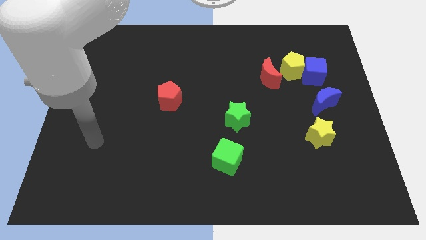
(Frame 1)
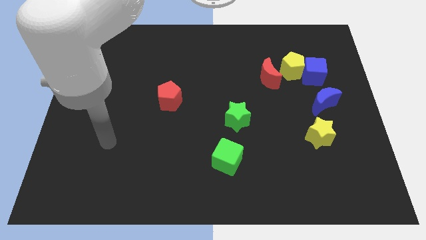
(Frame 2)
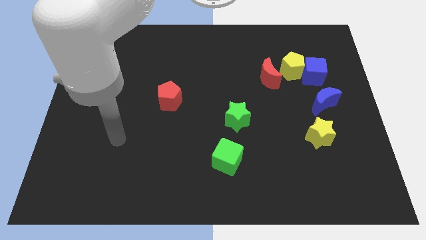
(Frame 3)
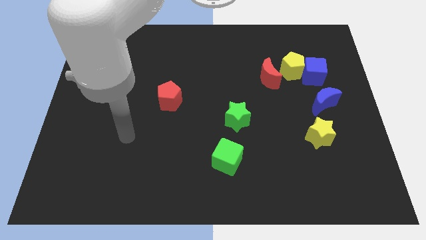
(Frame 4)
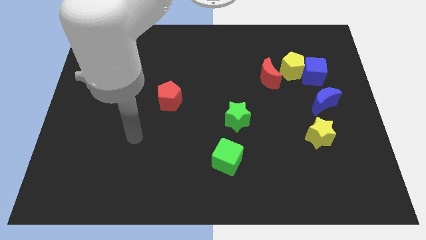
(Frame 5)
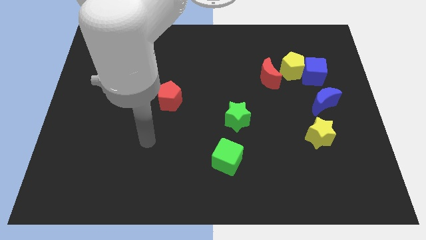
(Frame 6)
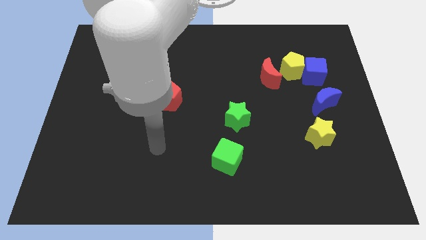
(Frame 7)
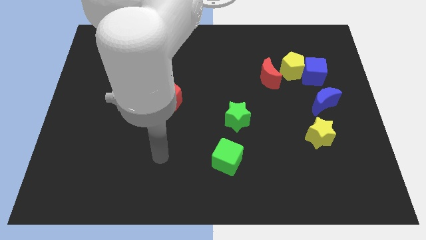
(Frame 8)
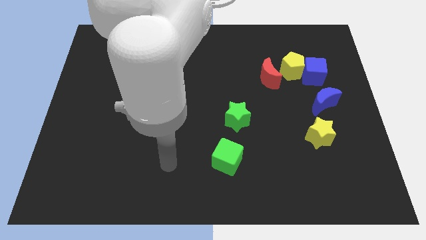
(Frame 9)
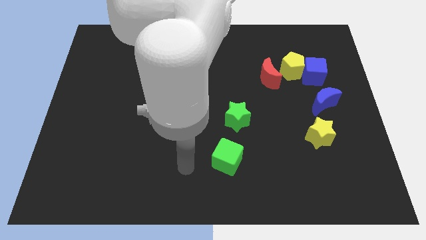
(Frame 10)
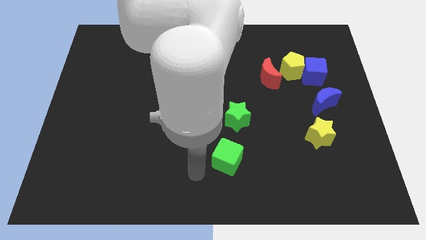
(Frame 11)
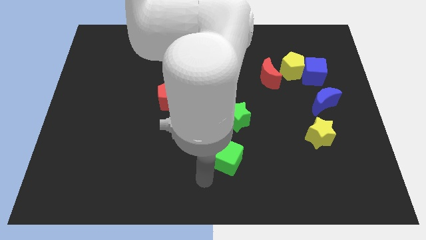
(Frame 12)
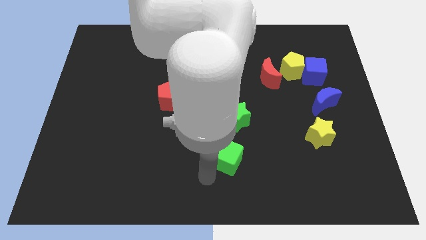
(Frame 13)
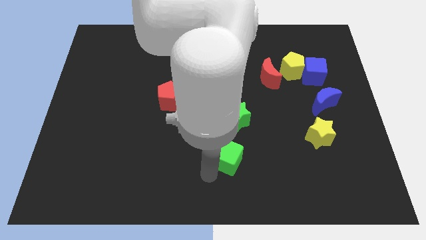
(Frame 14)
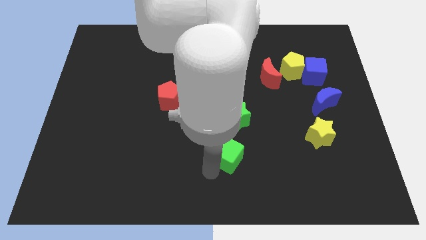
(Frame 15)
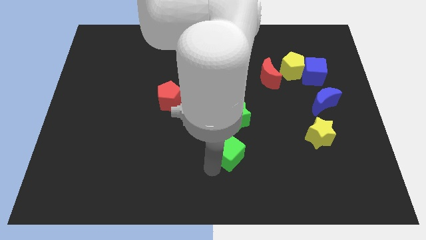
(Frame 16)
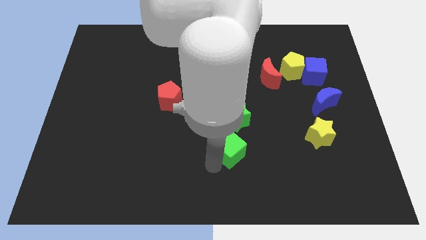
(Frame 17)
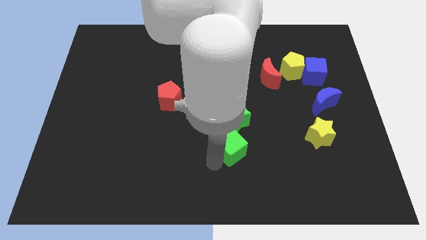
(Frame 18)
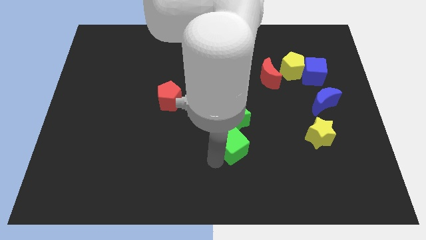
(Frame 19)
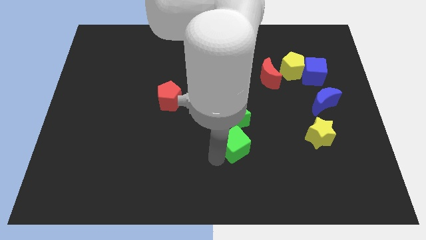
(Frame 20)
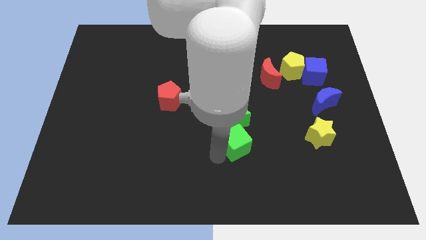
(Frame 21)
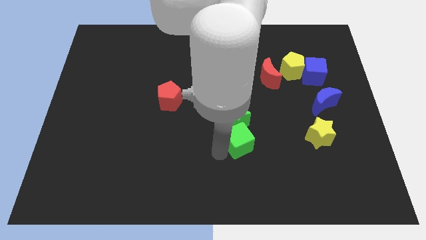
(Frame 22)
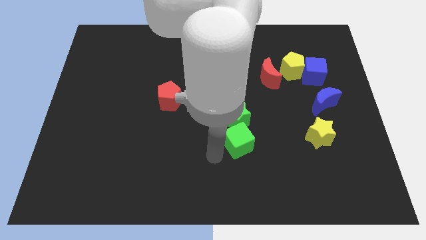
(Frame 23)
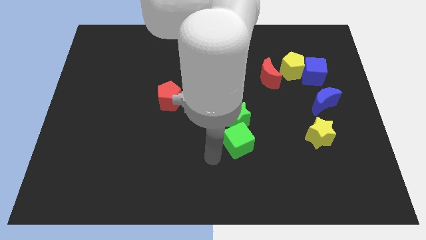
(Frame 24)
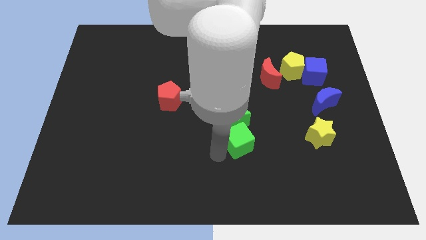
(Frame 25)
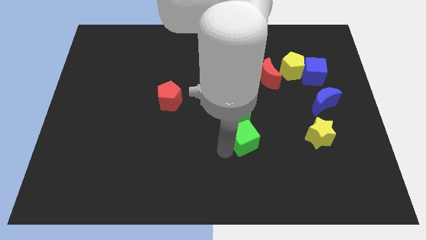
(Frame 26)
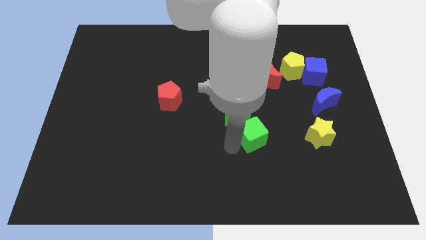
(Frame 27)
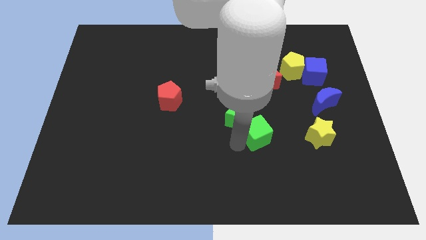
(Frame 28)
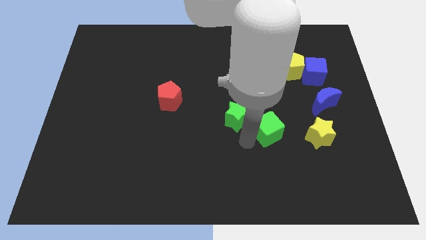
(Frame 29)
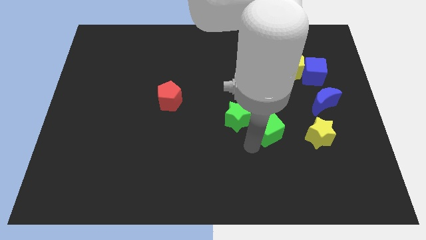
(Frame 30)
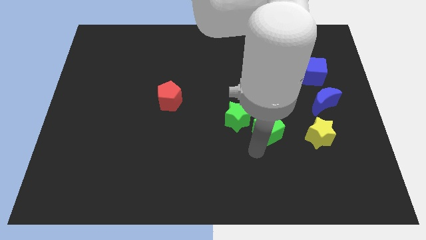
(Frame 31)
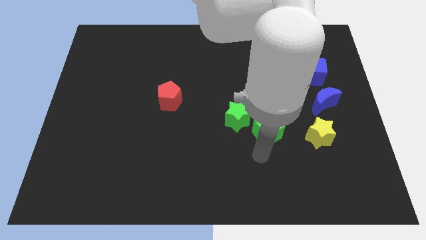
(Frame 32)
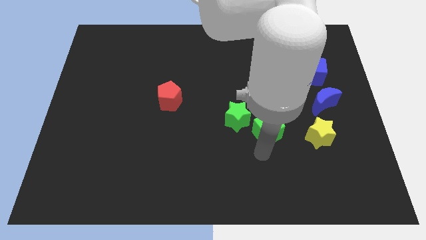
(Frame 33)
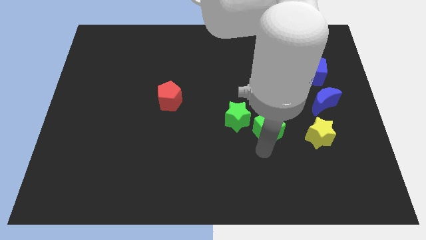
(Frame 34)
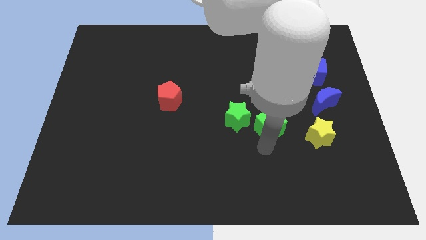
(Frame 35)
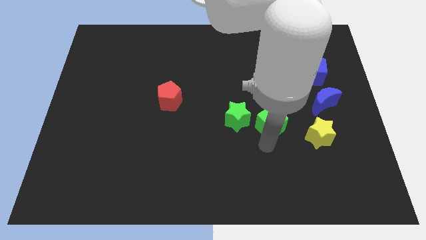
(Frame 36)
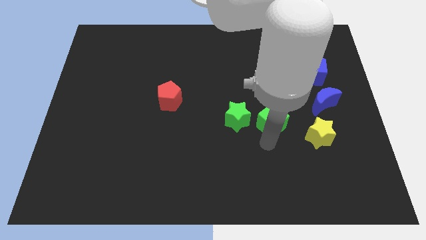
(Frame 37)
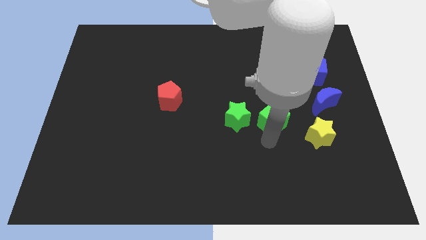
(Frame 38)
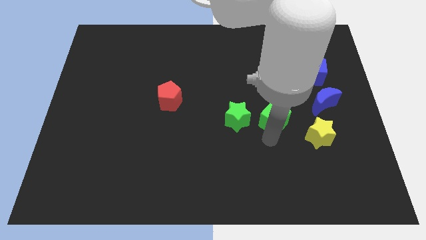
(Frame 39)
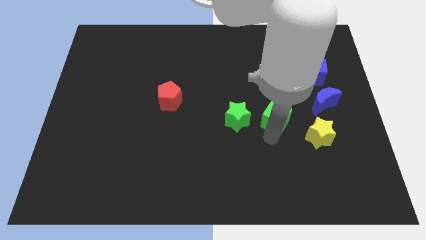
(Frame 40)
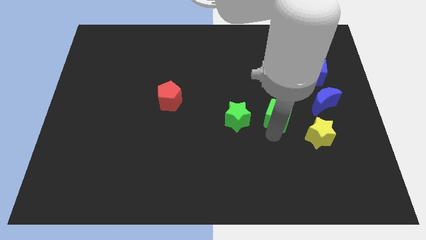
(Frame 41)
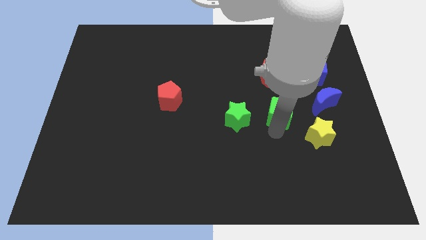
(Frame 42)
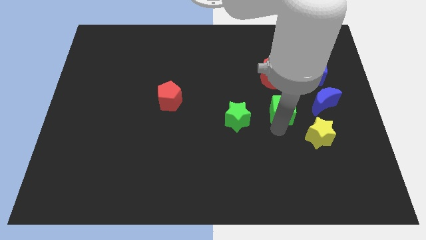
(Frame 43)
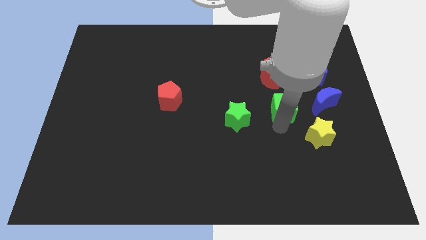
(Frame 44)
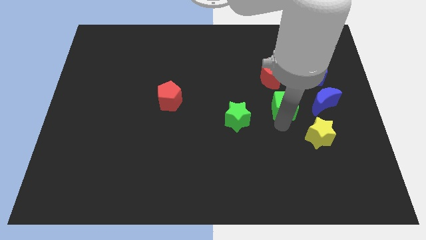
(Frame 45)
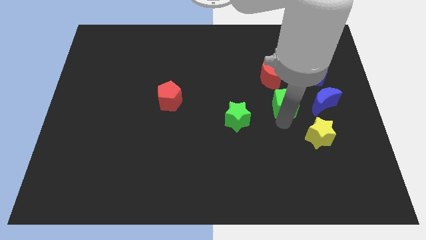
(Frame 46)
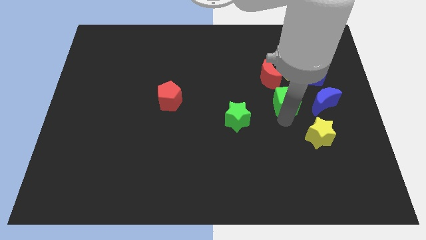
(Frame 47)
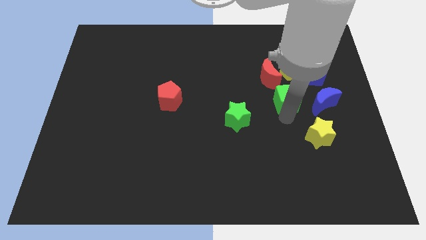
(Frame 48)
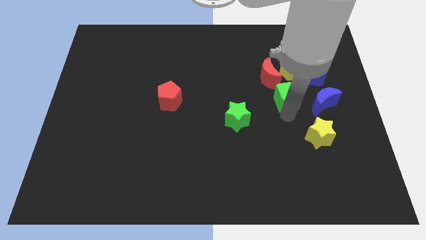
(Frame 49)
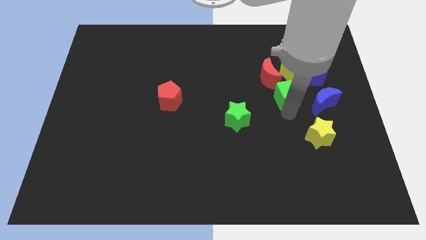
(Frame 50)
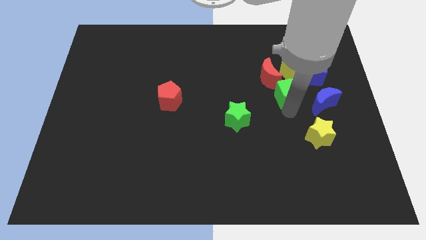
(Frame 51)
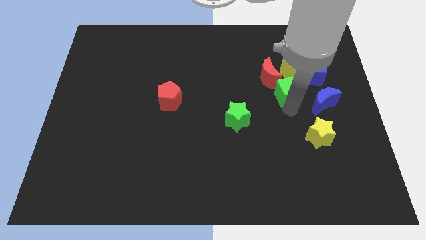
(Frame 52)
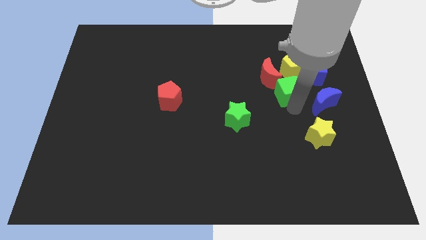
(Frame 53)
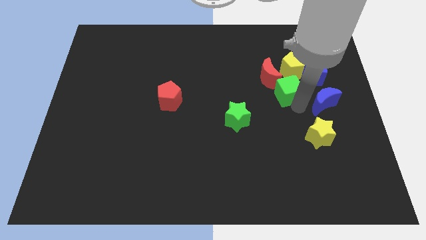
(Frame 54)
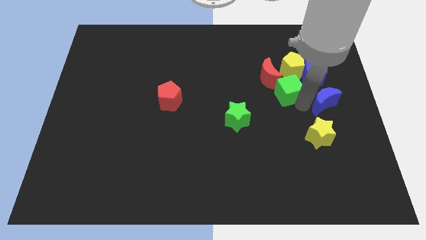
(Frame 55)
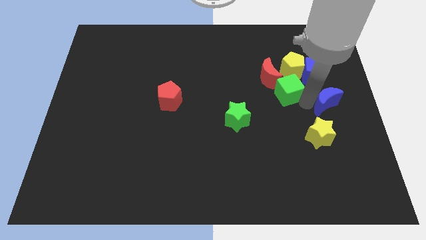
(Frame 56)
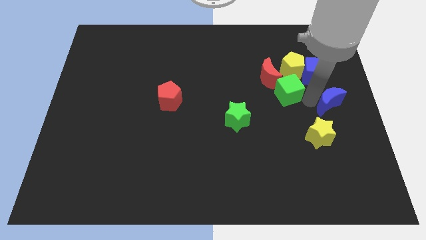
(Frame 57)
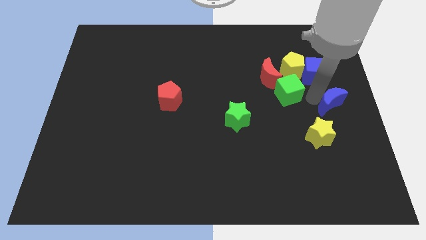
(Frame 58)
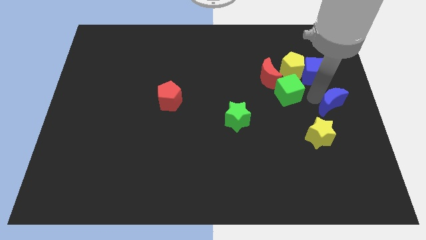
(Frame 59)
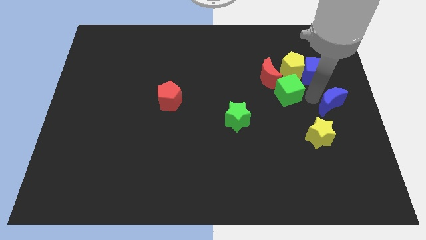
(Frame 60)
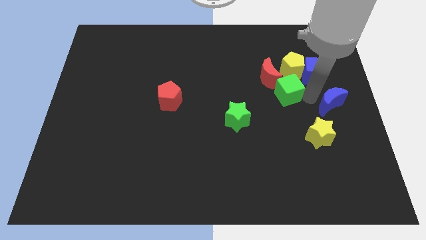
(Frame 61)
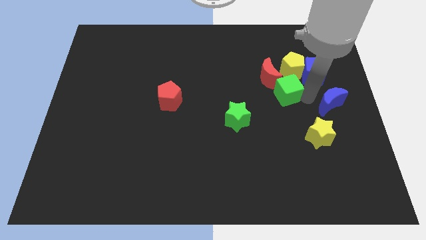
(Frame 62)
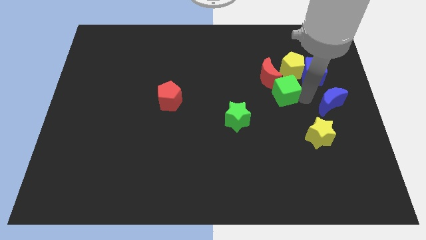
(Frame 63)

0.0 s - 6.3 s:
push the green cube towards the red moon
